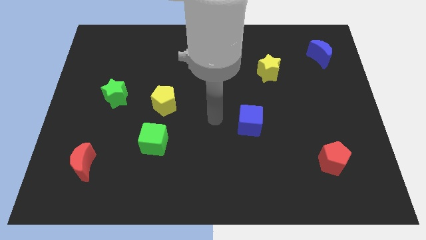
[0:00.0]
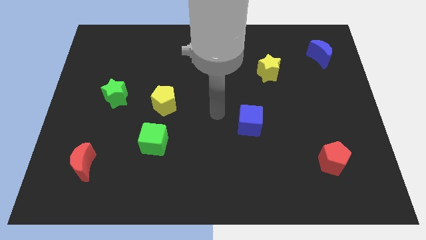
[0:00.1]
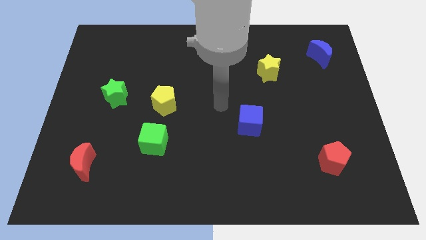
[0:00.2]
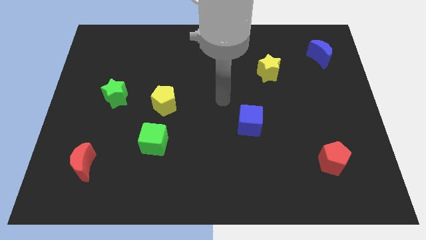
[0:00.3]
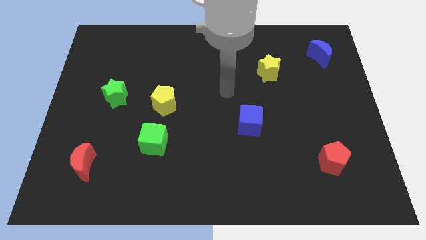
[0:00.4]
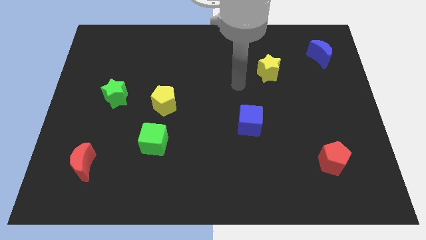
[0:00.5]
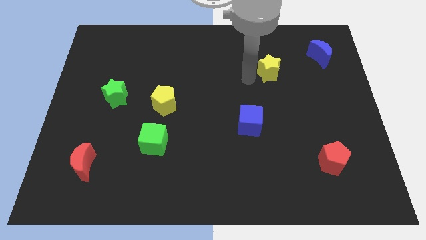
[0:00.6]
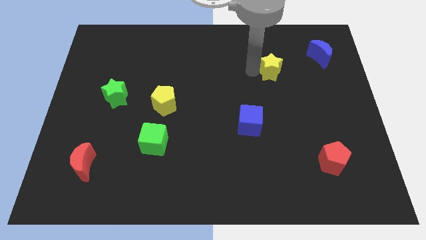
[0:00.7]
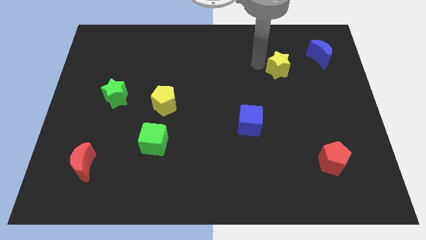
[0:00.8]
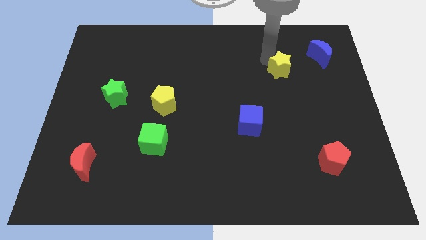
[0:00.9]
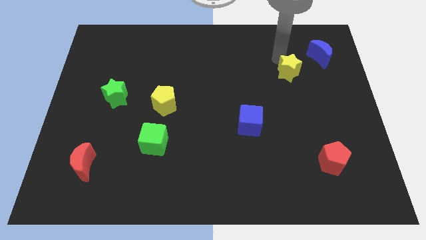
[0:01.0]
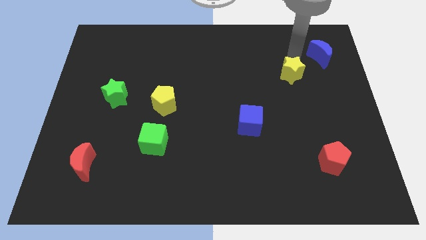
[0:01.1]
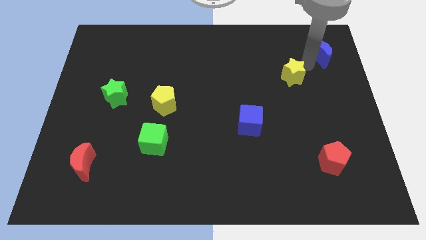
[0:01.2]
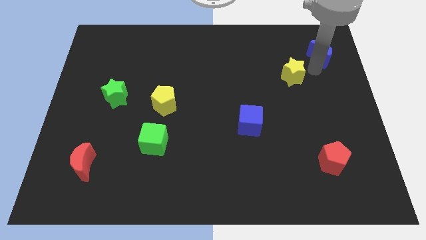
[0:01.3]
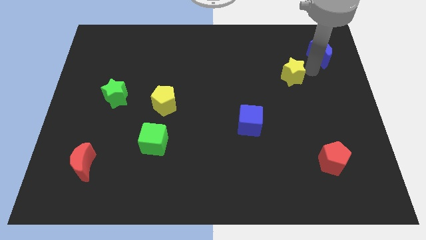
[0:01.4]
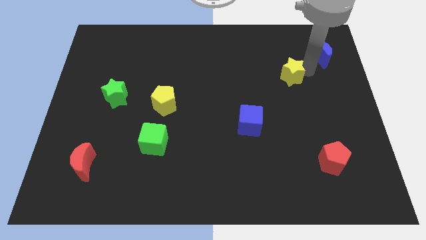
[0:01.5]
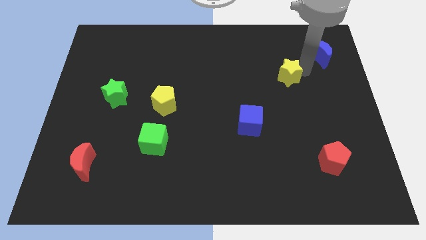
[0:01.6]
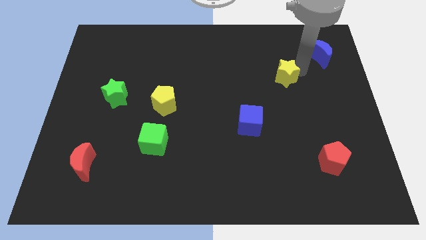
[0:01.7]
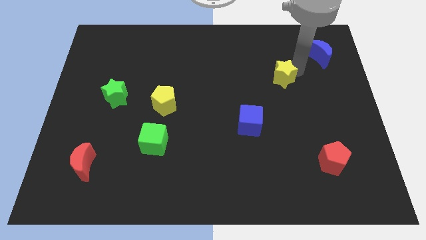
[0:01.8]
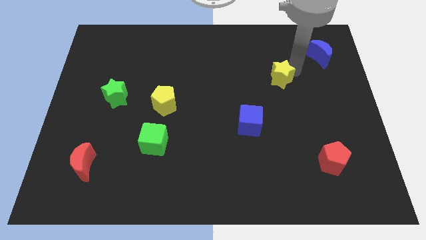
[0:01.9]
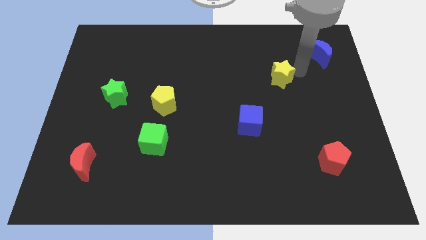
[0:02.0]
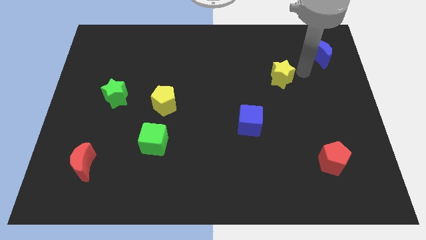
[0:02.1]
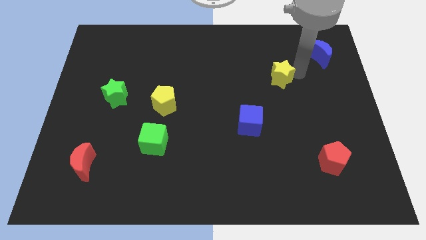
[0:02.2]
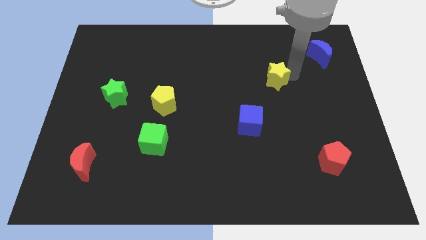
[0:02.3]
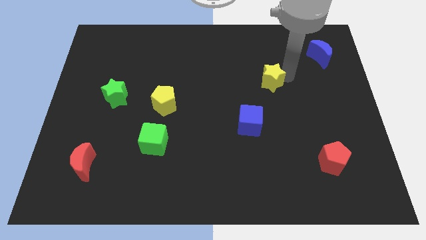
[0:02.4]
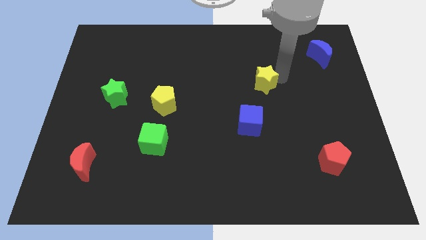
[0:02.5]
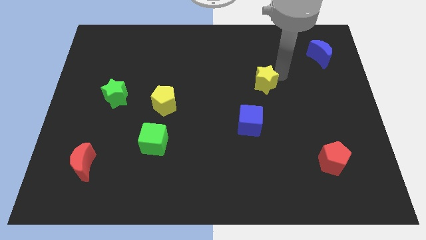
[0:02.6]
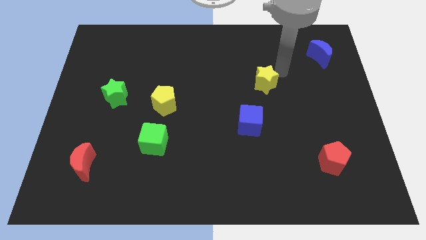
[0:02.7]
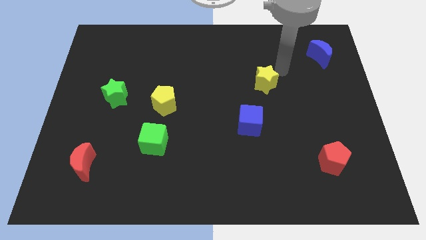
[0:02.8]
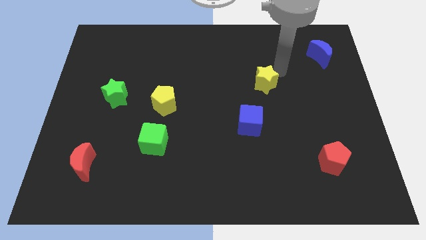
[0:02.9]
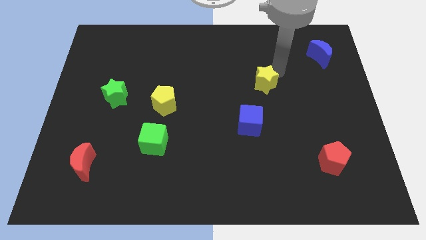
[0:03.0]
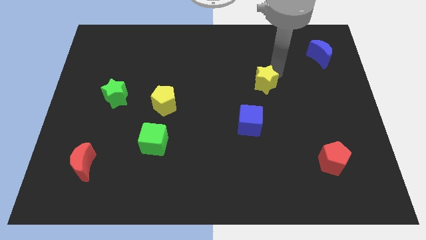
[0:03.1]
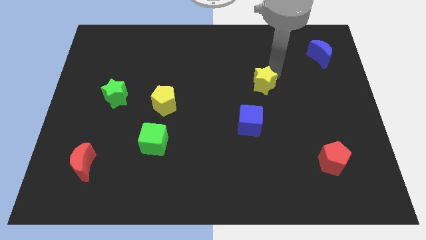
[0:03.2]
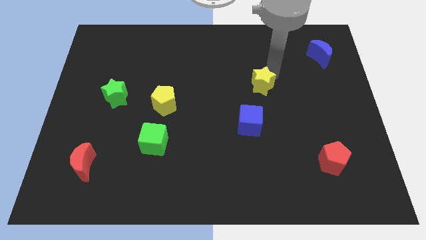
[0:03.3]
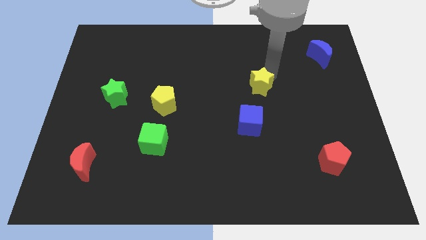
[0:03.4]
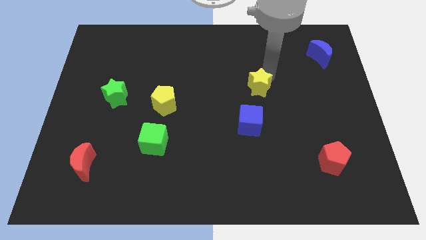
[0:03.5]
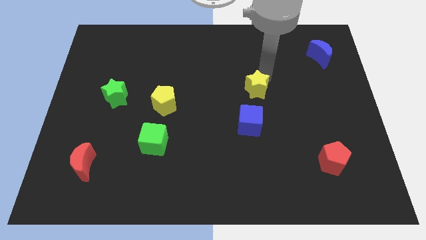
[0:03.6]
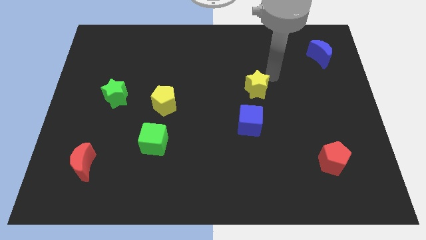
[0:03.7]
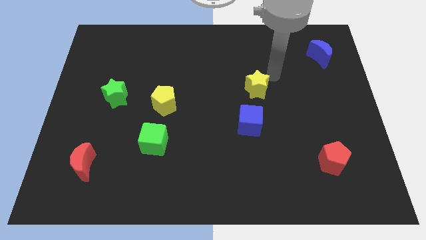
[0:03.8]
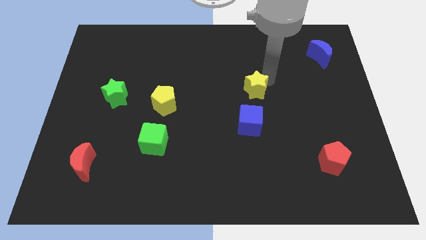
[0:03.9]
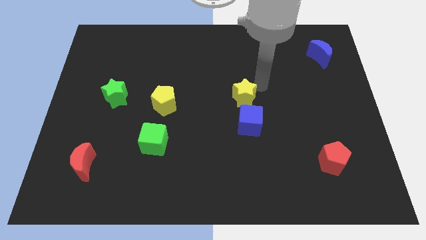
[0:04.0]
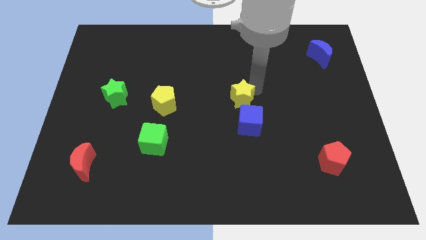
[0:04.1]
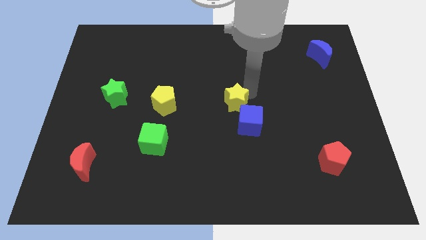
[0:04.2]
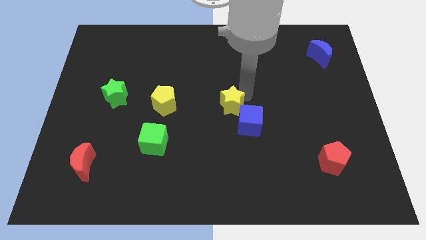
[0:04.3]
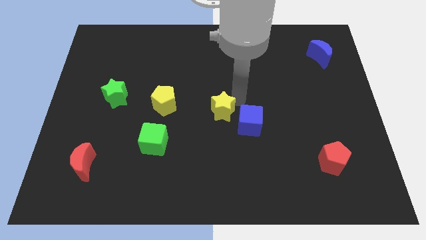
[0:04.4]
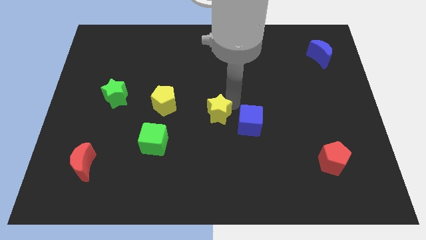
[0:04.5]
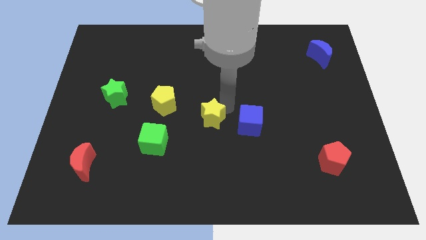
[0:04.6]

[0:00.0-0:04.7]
push the yellow star diagonally downwards and to the left

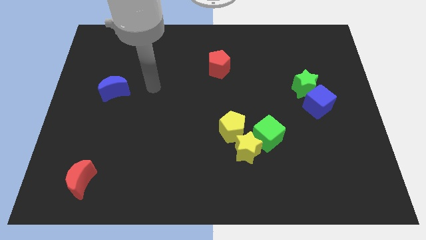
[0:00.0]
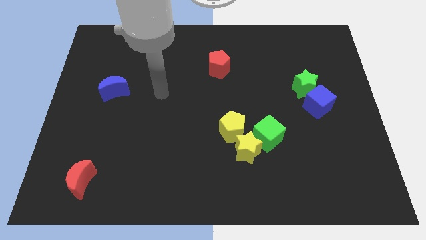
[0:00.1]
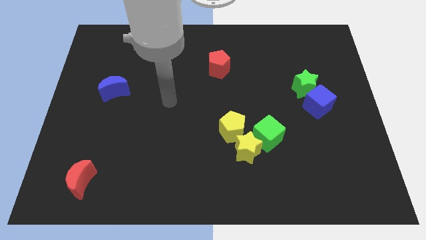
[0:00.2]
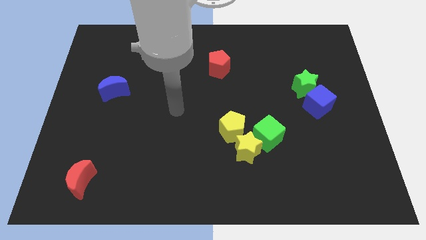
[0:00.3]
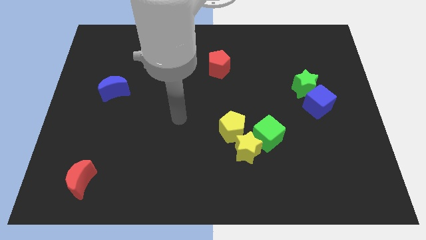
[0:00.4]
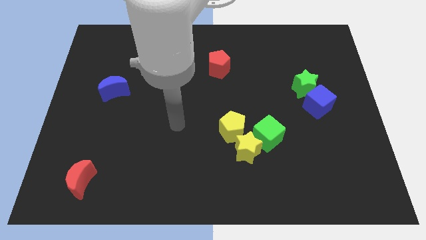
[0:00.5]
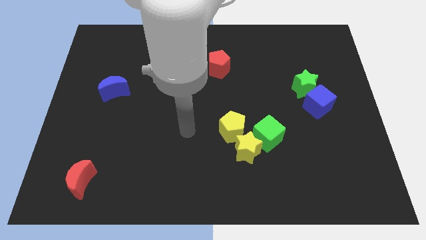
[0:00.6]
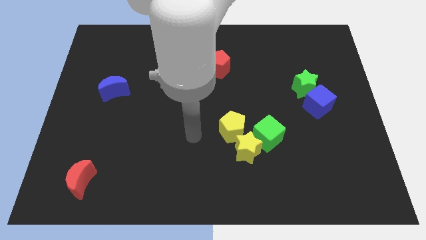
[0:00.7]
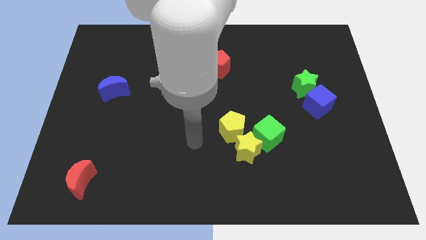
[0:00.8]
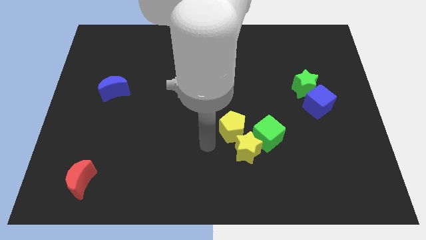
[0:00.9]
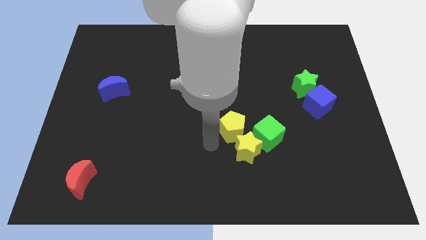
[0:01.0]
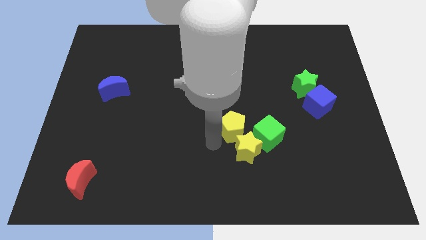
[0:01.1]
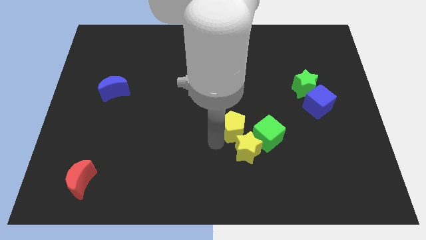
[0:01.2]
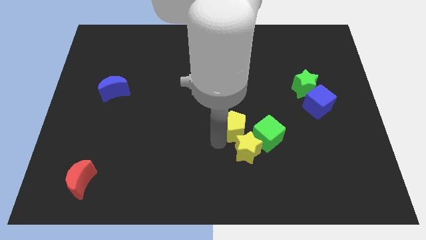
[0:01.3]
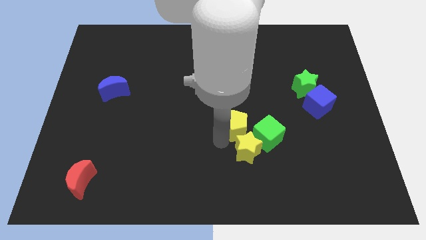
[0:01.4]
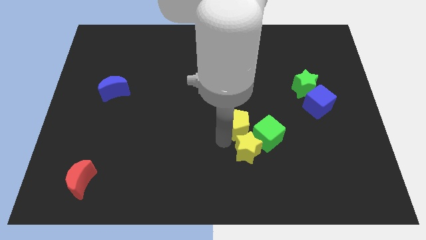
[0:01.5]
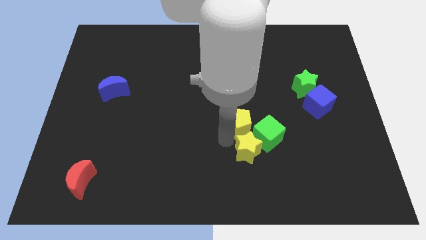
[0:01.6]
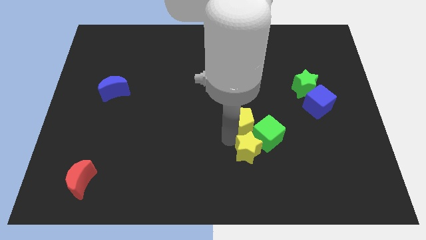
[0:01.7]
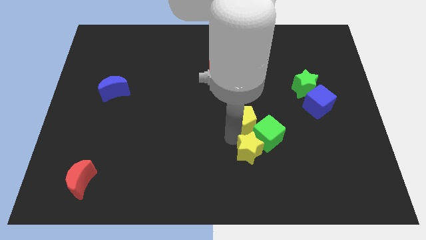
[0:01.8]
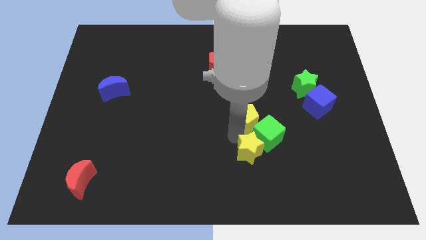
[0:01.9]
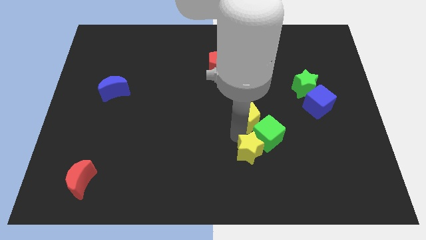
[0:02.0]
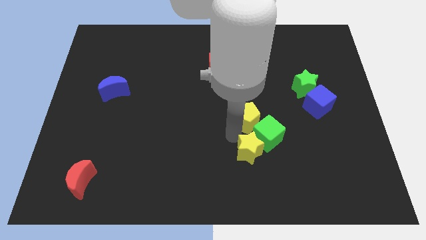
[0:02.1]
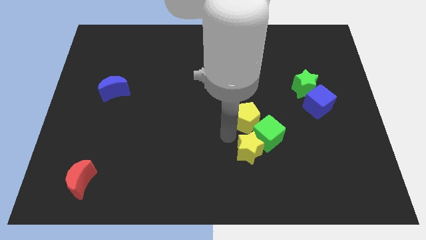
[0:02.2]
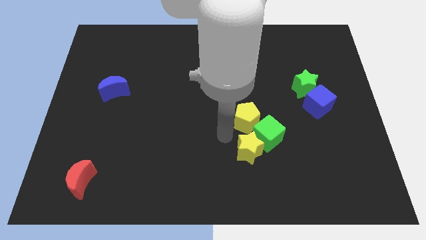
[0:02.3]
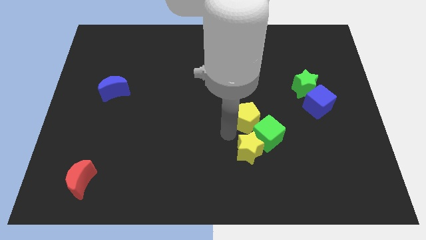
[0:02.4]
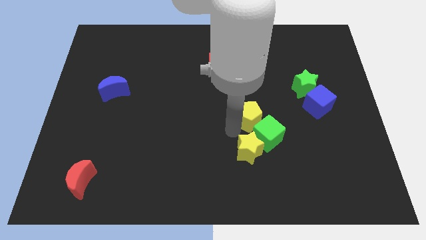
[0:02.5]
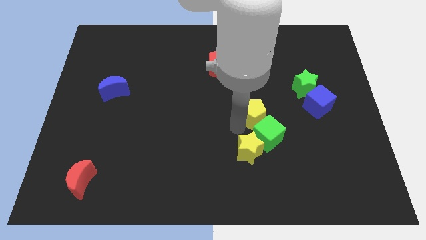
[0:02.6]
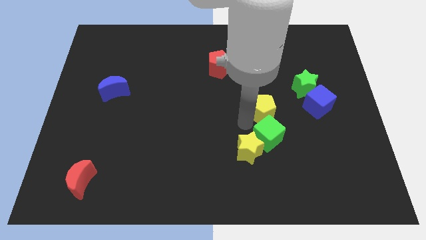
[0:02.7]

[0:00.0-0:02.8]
slide the yellow pentagon slightly up and right

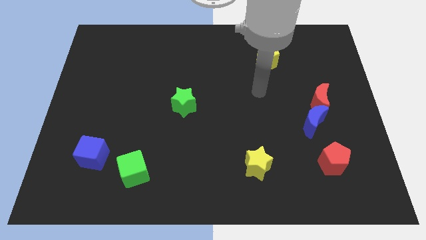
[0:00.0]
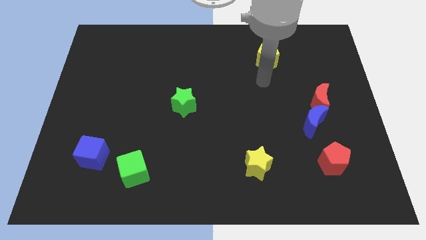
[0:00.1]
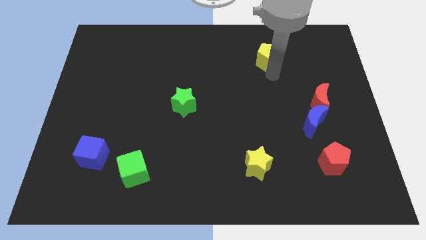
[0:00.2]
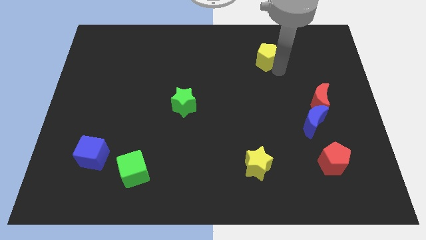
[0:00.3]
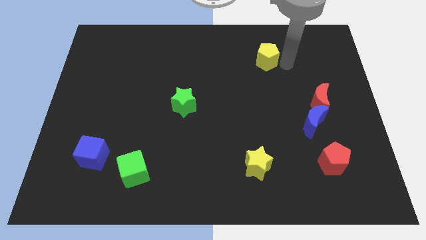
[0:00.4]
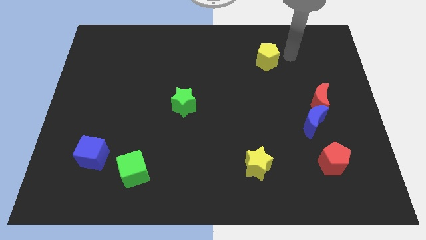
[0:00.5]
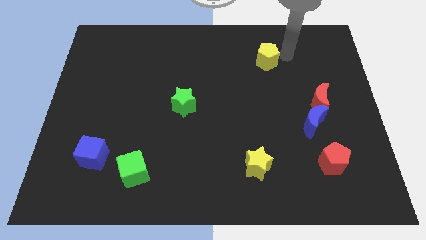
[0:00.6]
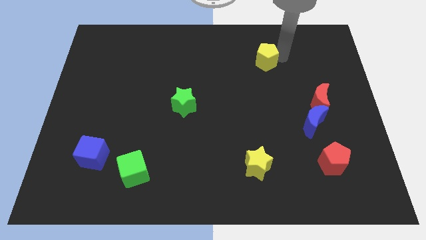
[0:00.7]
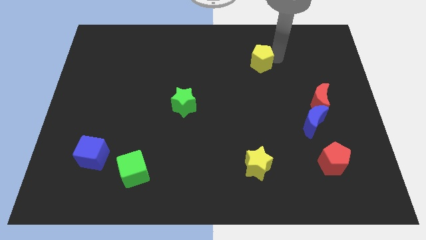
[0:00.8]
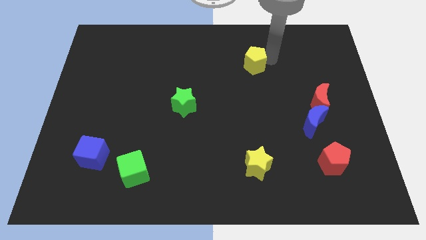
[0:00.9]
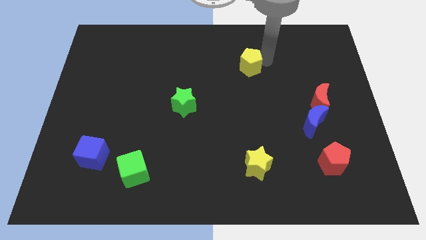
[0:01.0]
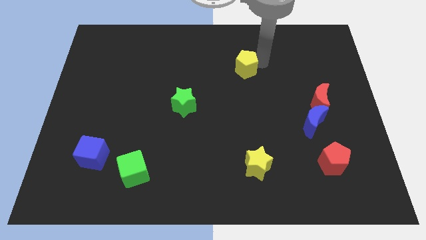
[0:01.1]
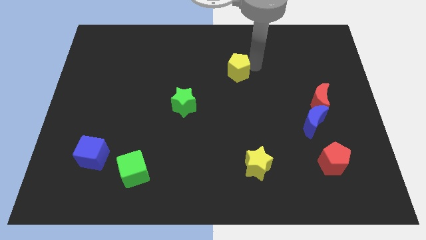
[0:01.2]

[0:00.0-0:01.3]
move the yellow pentagon to the left a bit
